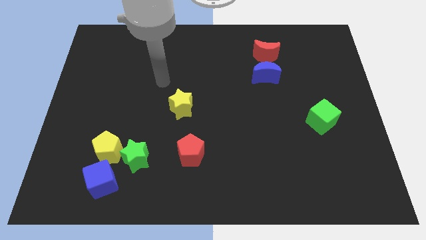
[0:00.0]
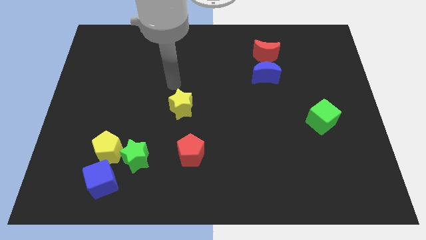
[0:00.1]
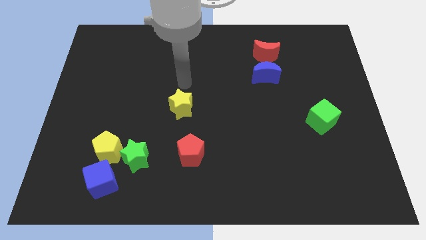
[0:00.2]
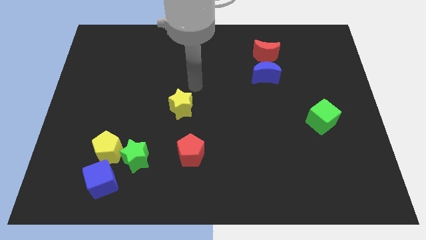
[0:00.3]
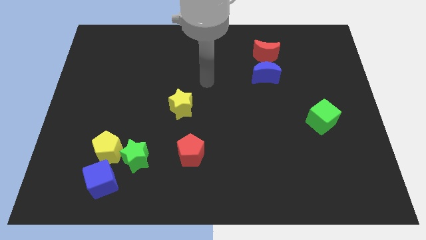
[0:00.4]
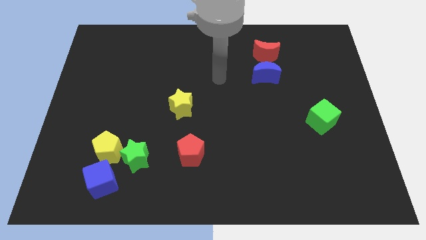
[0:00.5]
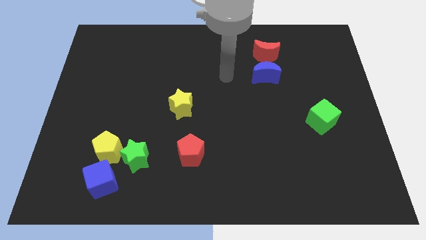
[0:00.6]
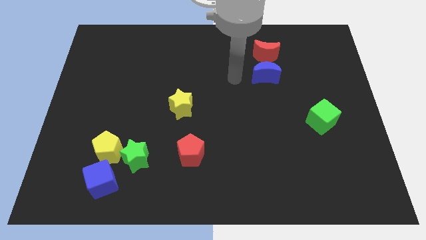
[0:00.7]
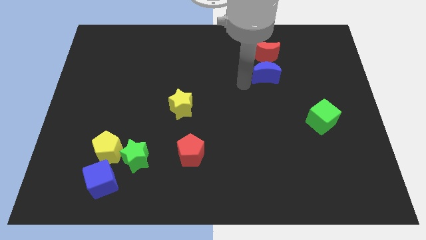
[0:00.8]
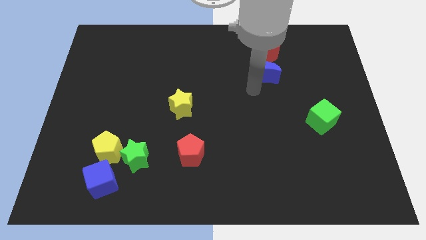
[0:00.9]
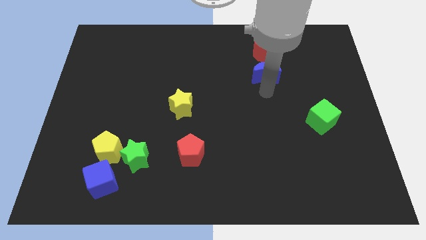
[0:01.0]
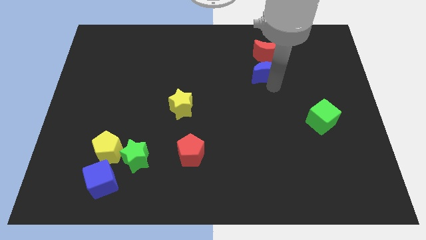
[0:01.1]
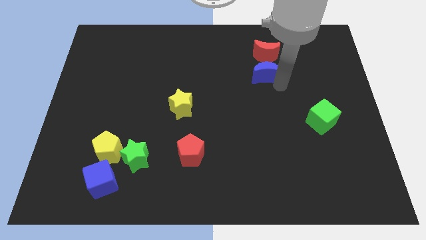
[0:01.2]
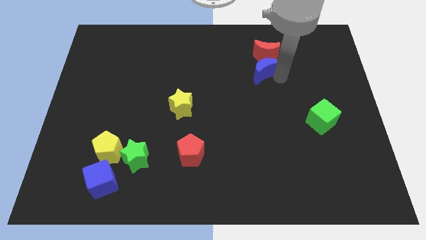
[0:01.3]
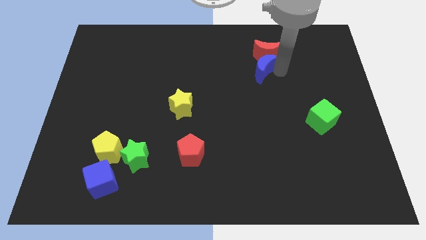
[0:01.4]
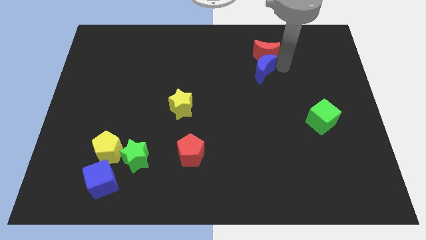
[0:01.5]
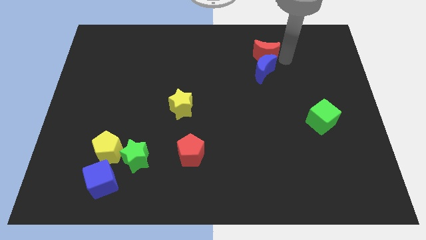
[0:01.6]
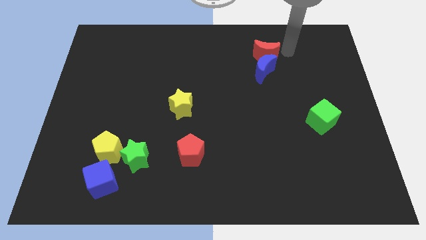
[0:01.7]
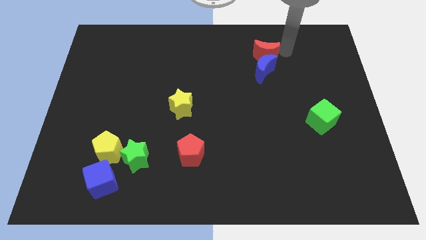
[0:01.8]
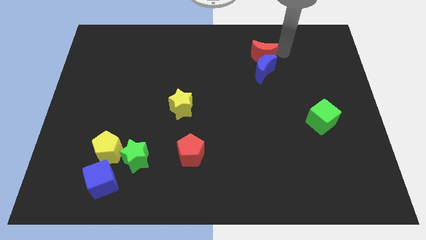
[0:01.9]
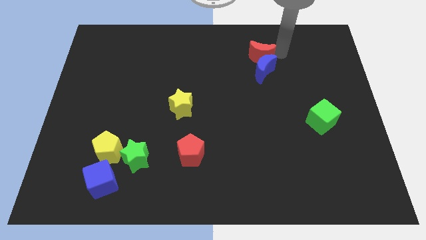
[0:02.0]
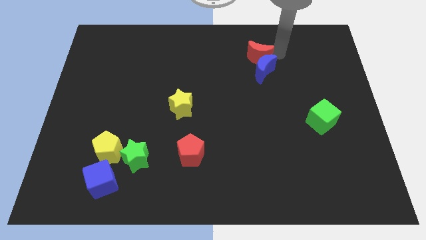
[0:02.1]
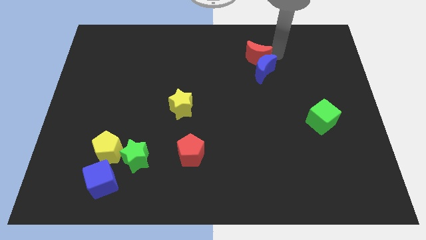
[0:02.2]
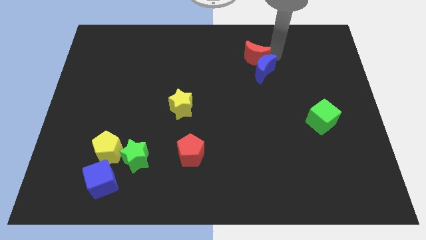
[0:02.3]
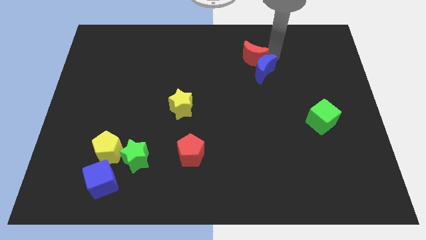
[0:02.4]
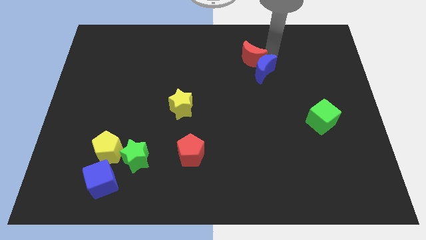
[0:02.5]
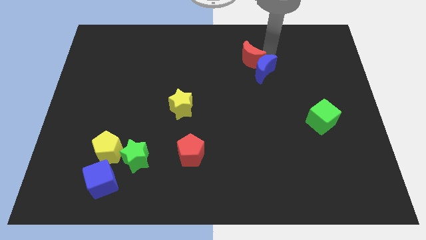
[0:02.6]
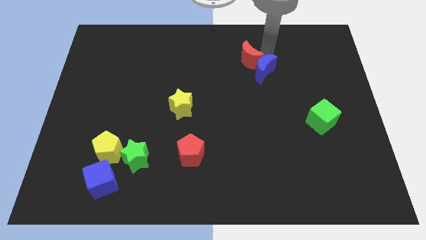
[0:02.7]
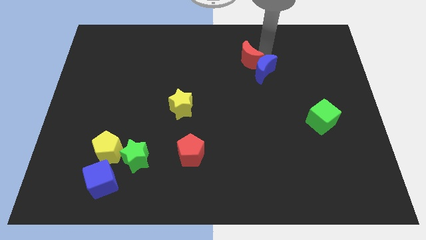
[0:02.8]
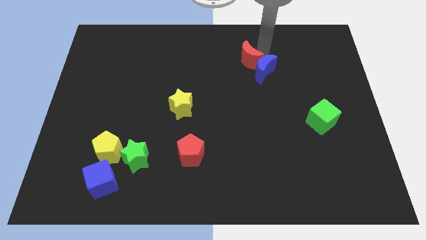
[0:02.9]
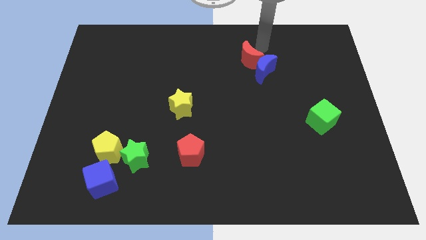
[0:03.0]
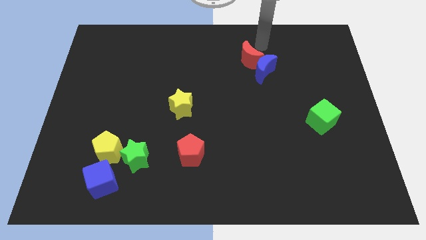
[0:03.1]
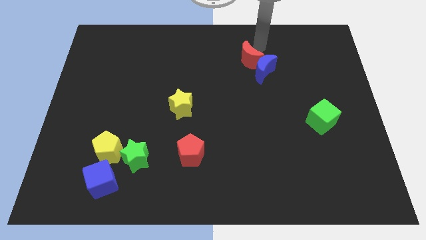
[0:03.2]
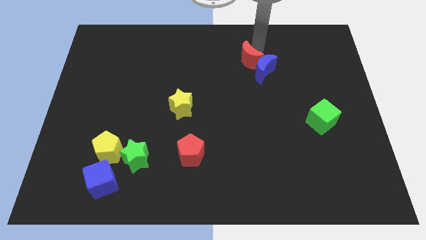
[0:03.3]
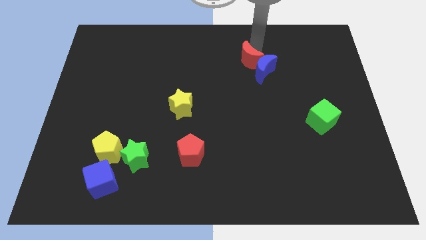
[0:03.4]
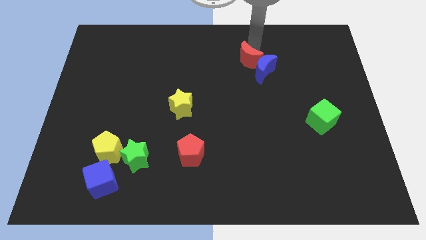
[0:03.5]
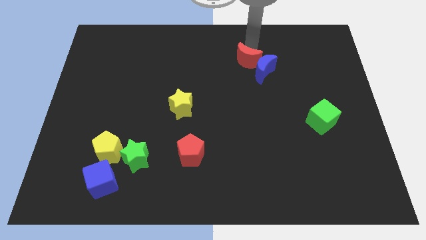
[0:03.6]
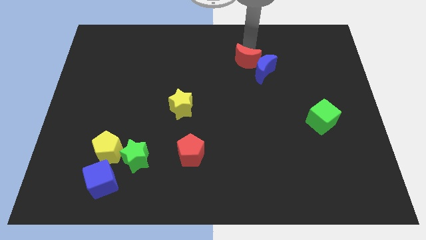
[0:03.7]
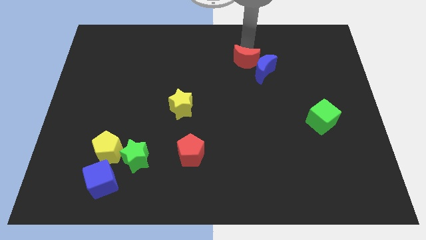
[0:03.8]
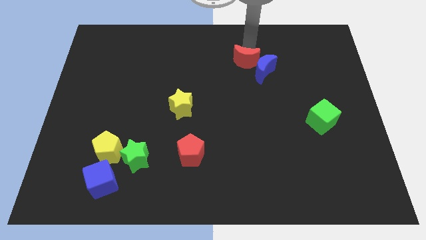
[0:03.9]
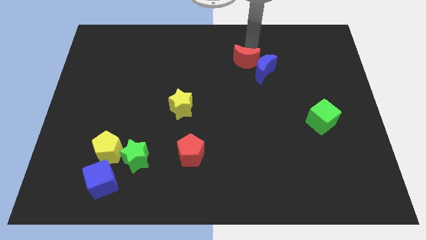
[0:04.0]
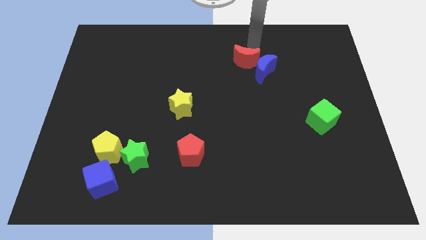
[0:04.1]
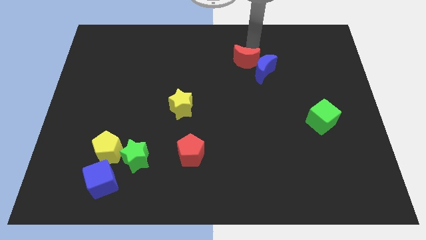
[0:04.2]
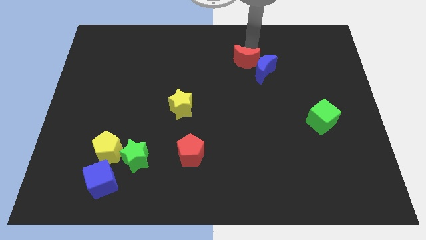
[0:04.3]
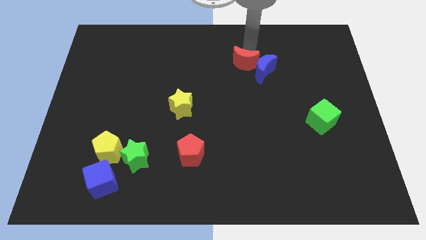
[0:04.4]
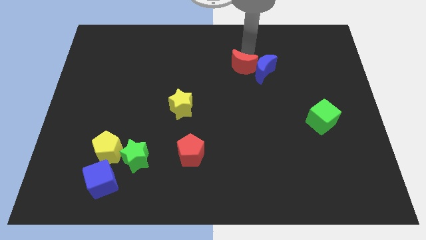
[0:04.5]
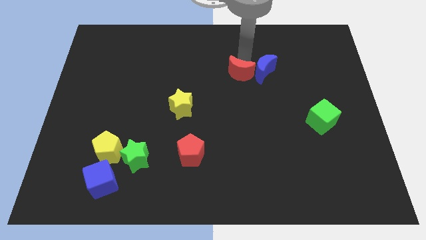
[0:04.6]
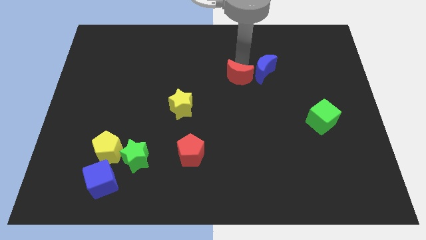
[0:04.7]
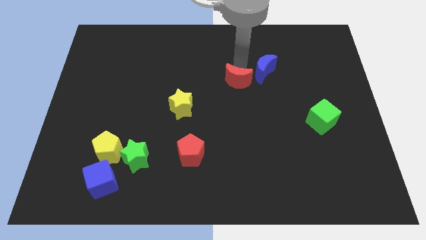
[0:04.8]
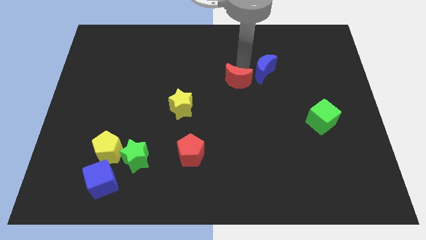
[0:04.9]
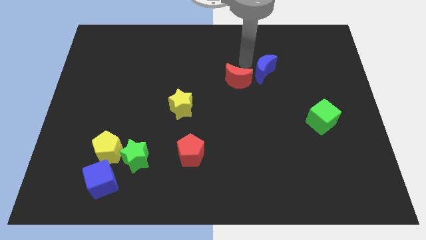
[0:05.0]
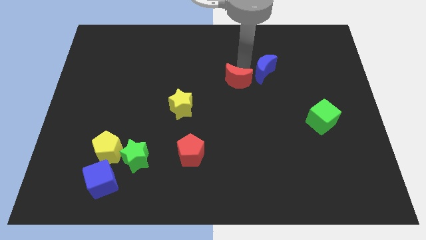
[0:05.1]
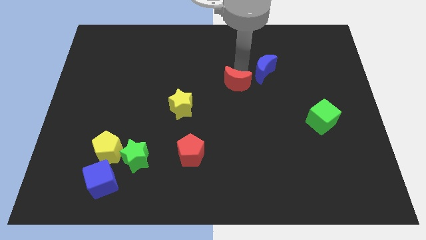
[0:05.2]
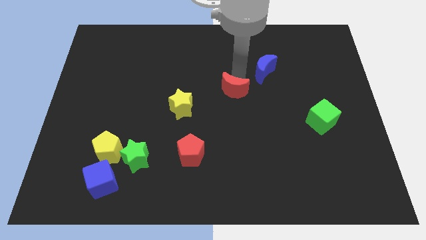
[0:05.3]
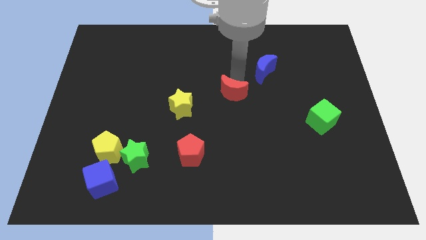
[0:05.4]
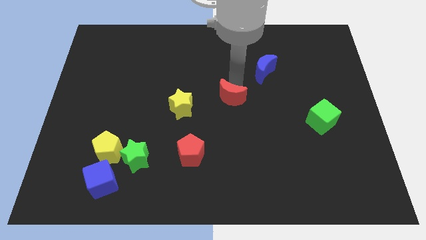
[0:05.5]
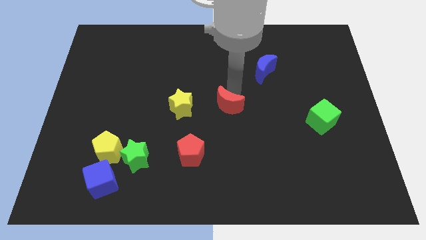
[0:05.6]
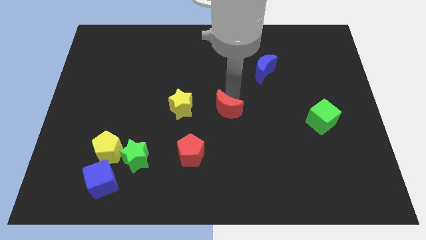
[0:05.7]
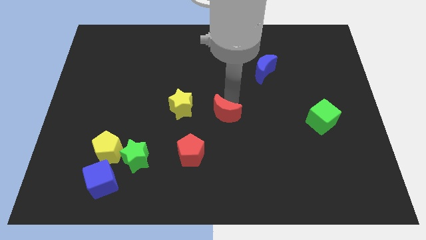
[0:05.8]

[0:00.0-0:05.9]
push the red moon down and left diagonally

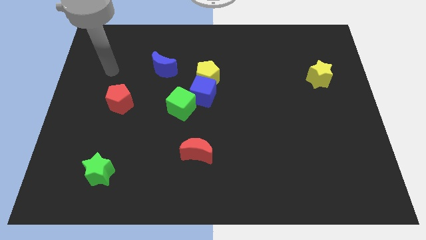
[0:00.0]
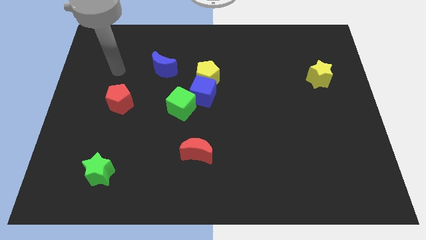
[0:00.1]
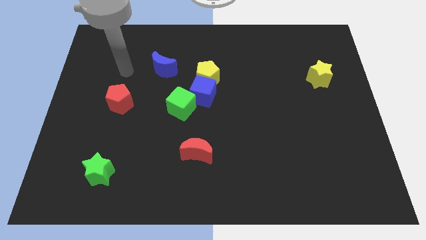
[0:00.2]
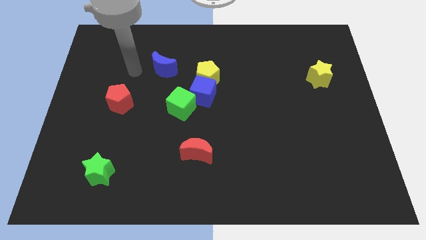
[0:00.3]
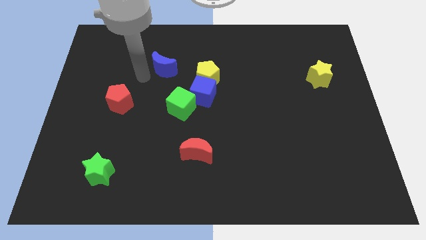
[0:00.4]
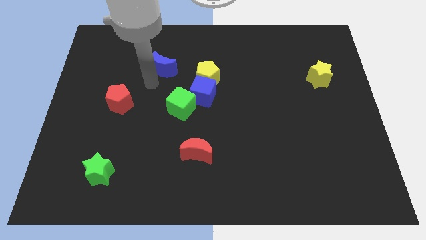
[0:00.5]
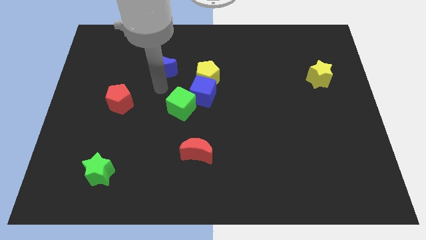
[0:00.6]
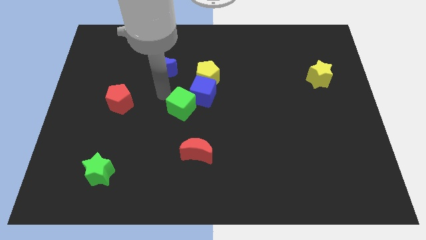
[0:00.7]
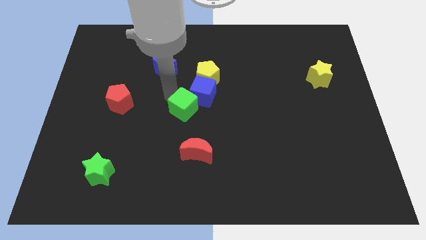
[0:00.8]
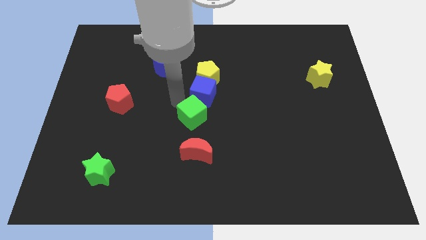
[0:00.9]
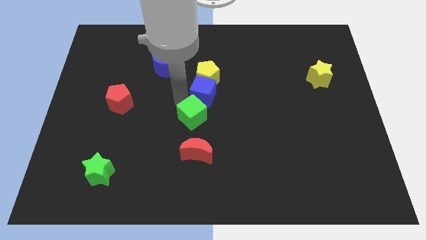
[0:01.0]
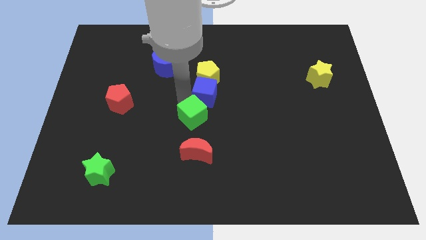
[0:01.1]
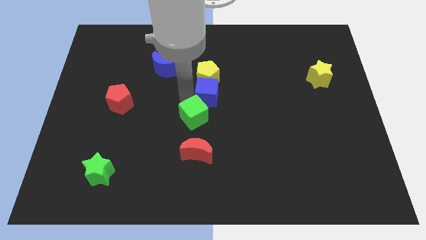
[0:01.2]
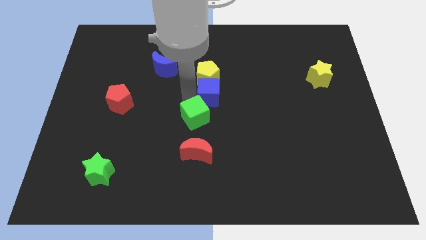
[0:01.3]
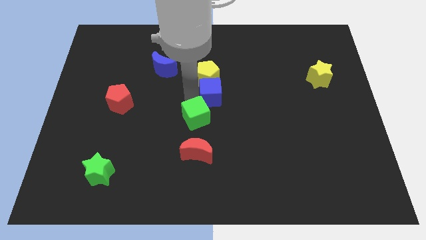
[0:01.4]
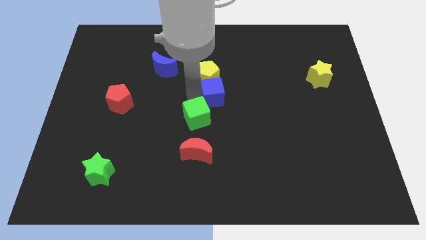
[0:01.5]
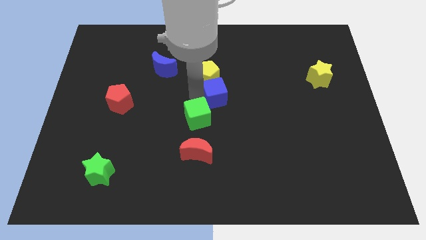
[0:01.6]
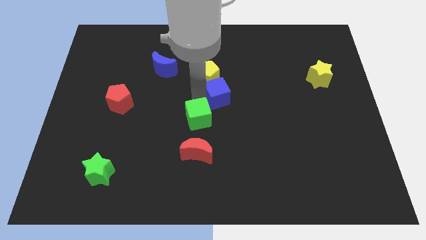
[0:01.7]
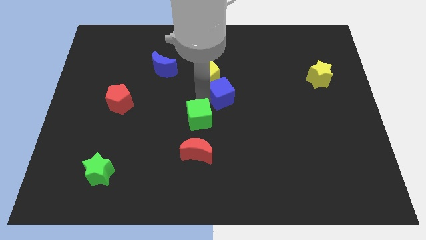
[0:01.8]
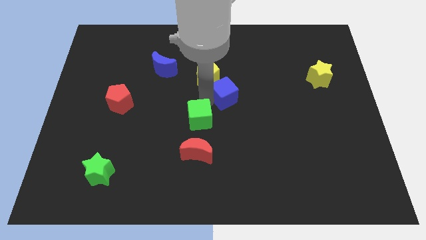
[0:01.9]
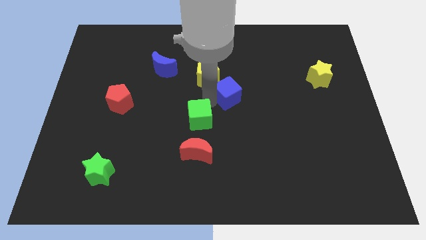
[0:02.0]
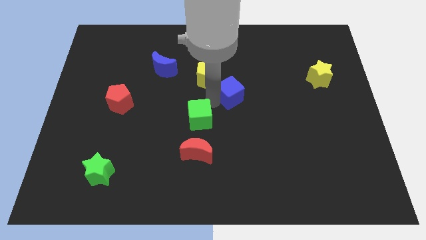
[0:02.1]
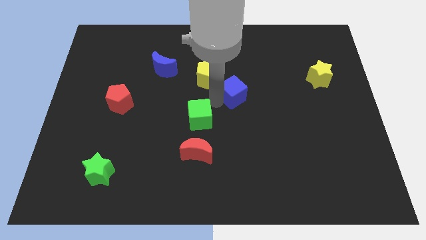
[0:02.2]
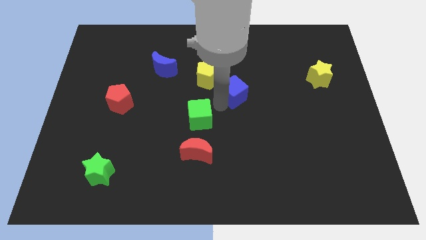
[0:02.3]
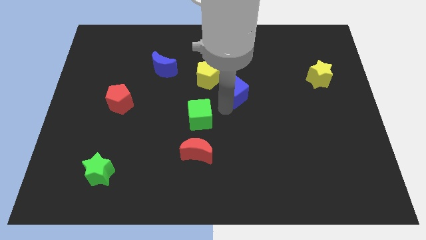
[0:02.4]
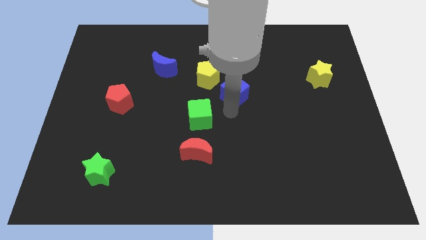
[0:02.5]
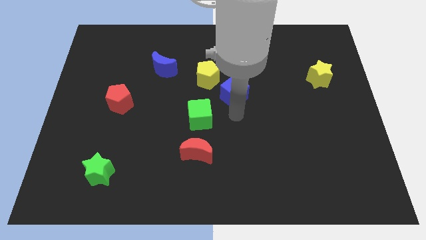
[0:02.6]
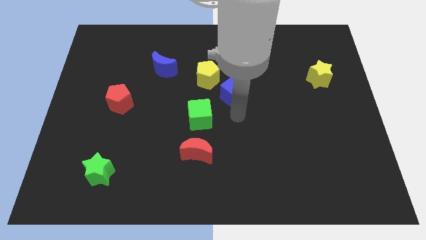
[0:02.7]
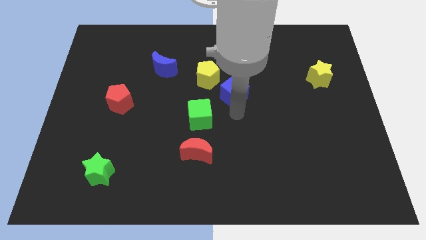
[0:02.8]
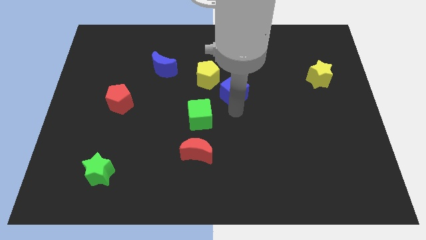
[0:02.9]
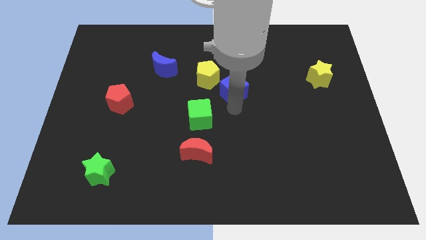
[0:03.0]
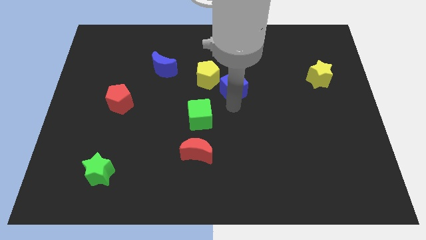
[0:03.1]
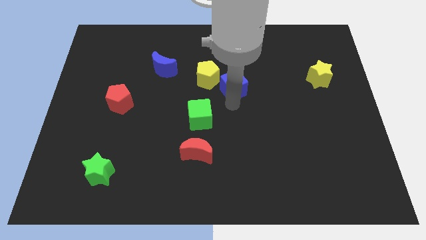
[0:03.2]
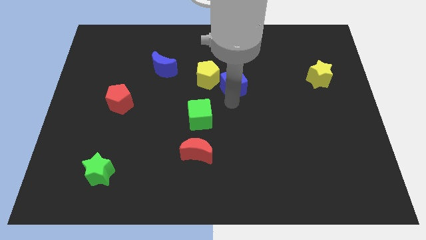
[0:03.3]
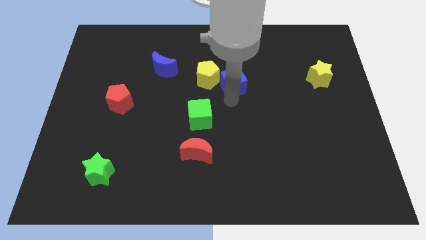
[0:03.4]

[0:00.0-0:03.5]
slightly push the blue cube up and to the right diagonally
